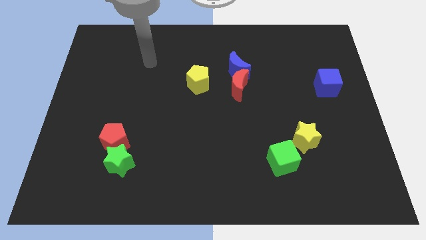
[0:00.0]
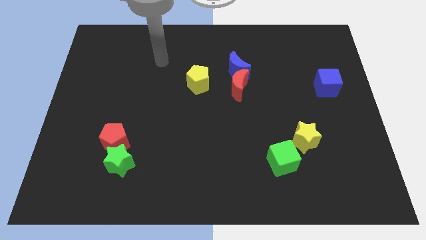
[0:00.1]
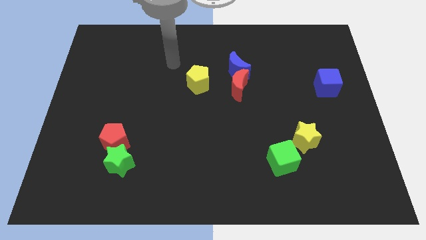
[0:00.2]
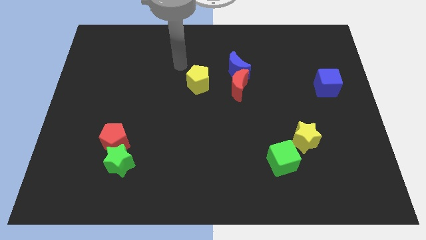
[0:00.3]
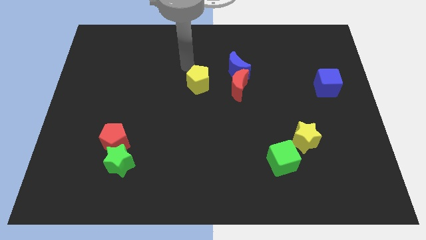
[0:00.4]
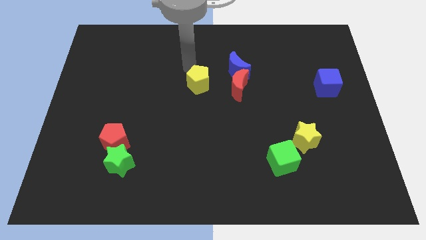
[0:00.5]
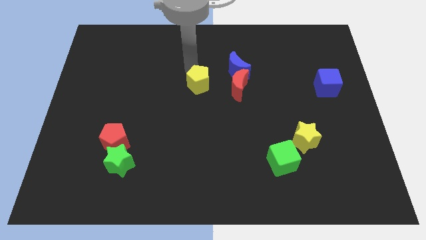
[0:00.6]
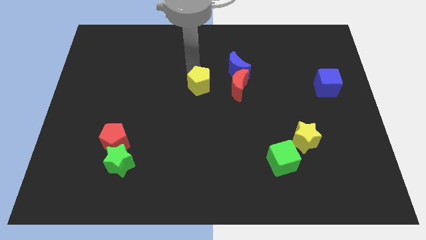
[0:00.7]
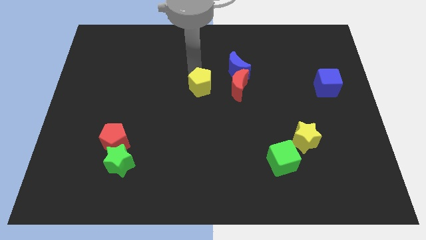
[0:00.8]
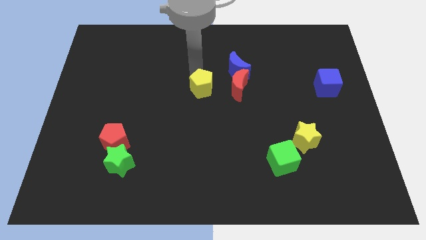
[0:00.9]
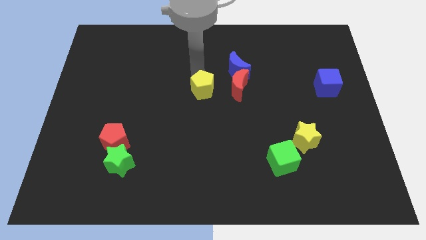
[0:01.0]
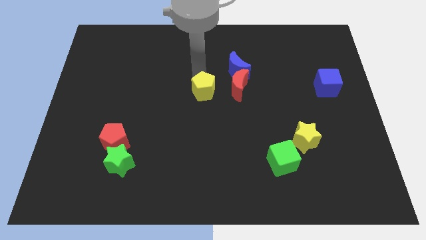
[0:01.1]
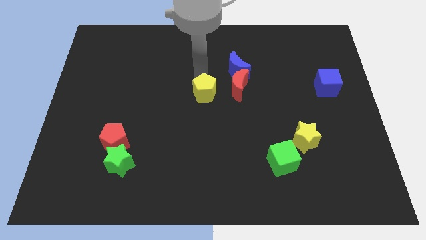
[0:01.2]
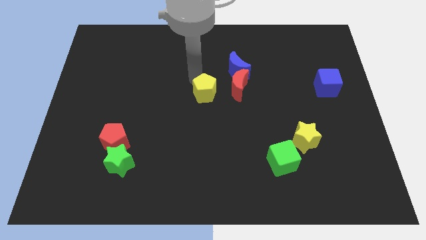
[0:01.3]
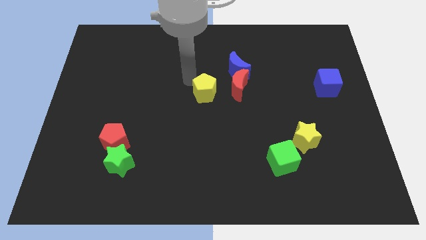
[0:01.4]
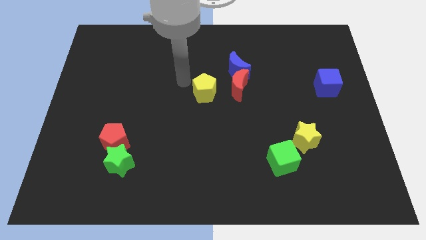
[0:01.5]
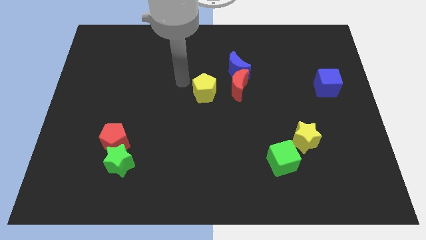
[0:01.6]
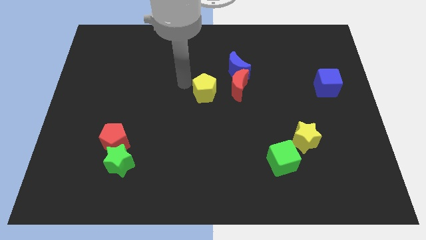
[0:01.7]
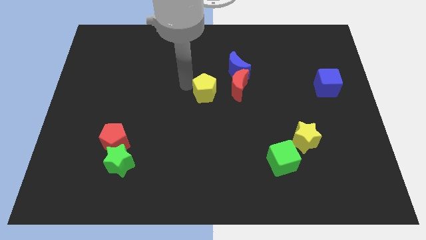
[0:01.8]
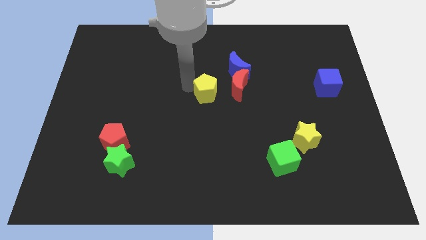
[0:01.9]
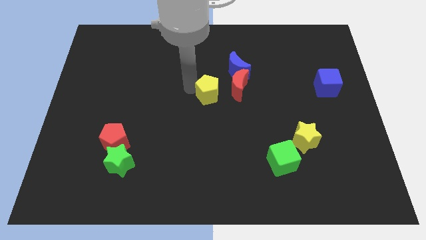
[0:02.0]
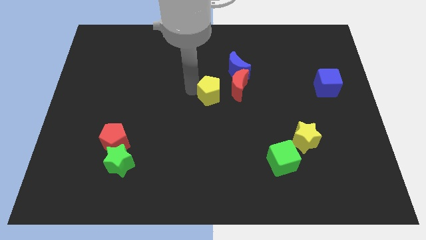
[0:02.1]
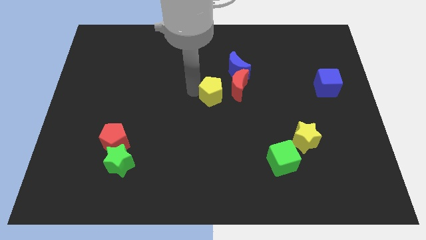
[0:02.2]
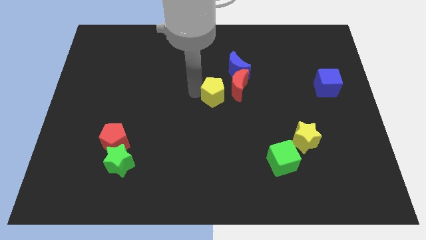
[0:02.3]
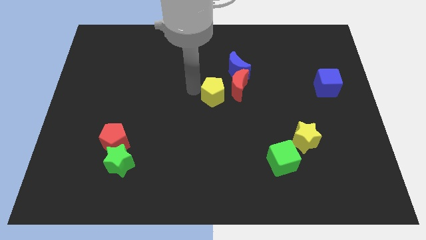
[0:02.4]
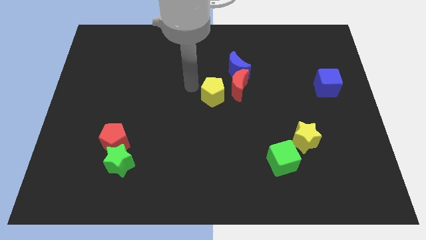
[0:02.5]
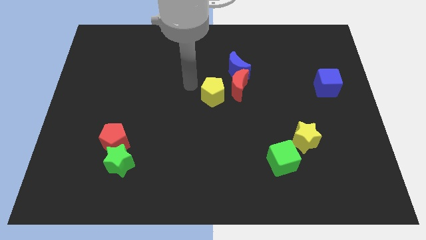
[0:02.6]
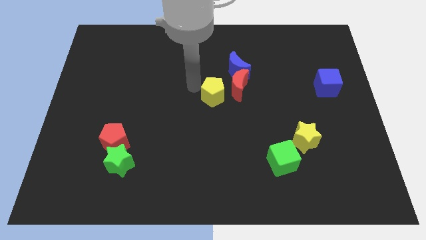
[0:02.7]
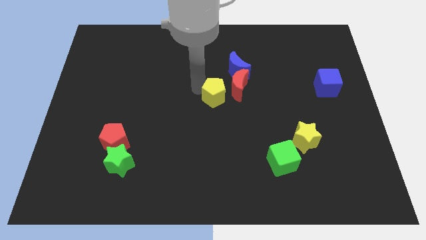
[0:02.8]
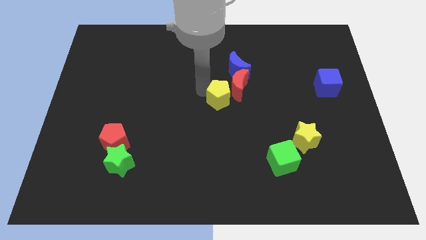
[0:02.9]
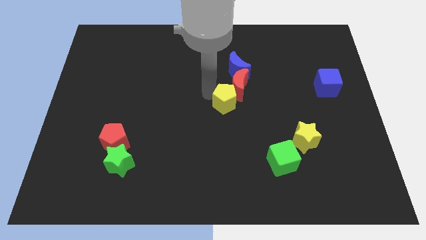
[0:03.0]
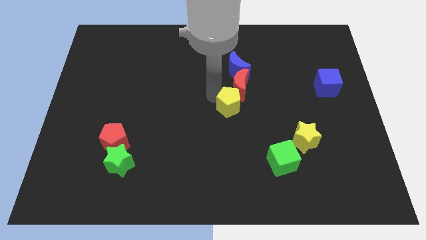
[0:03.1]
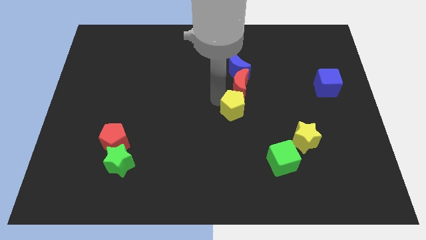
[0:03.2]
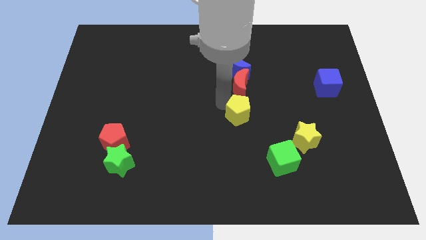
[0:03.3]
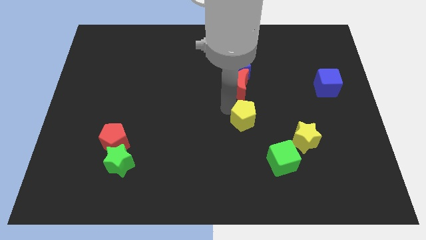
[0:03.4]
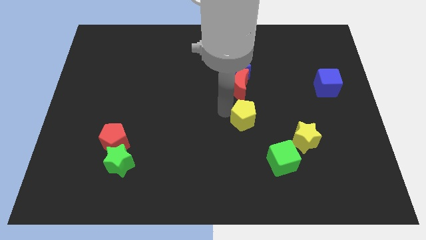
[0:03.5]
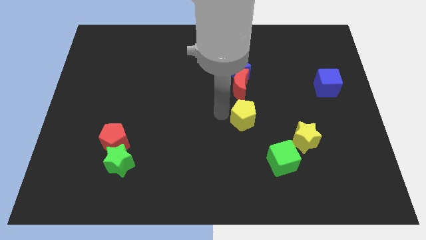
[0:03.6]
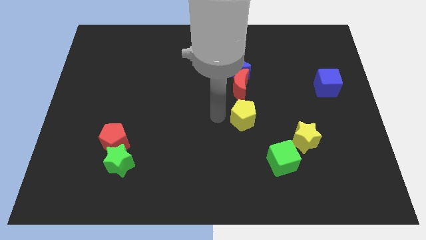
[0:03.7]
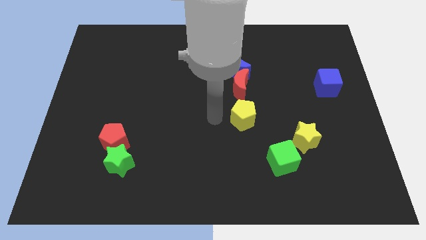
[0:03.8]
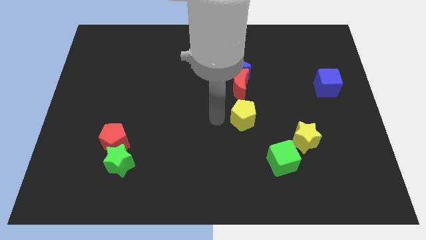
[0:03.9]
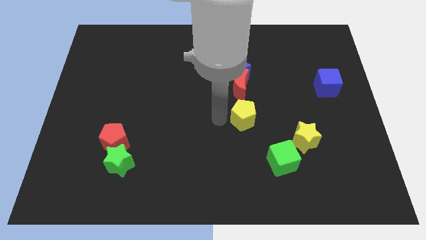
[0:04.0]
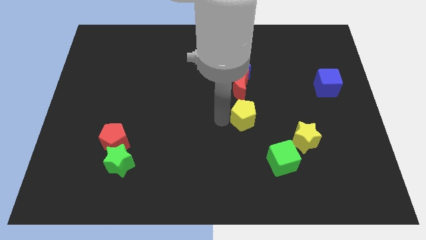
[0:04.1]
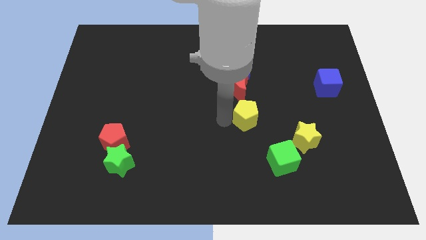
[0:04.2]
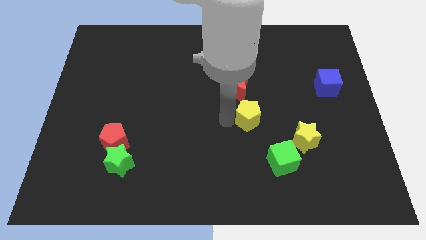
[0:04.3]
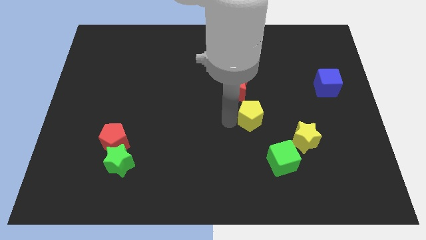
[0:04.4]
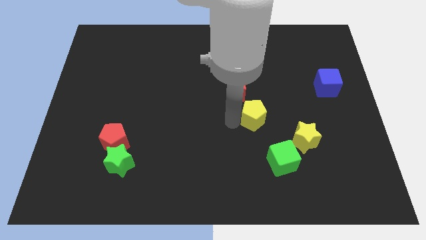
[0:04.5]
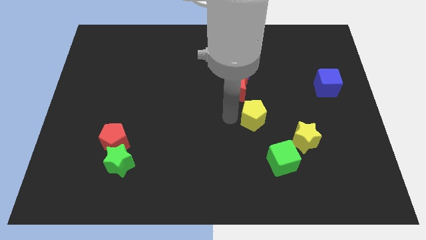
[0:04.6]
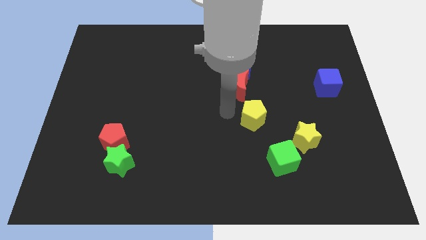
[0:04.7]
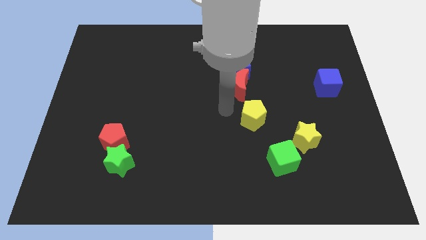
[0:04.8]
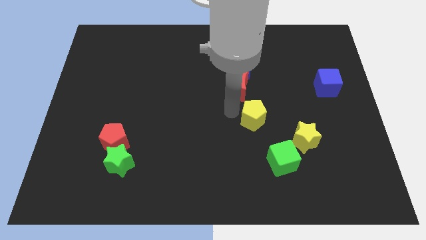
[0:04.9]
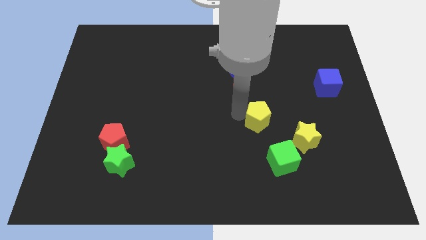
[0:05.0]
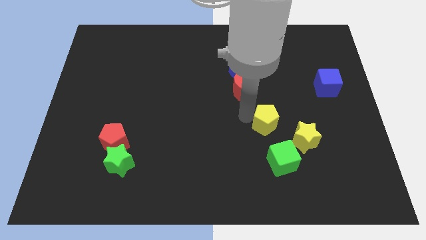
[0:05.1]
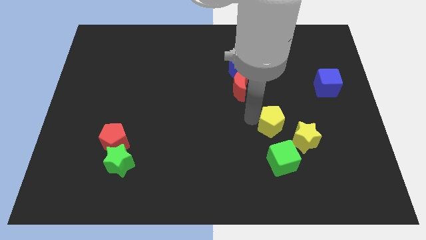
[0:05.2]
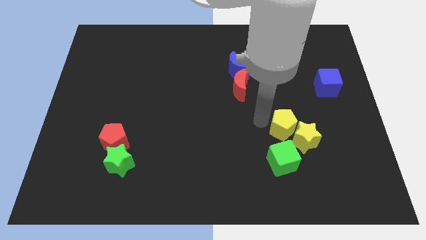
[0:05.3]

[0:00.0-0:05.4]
put the yellow pentagon to the yellow star

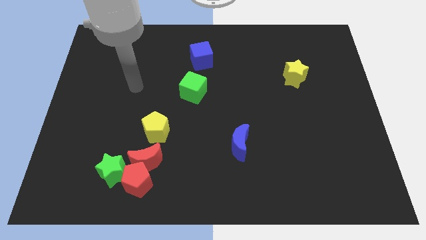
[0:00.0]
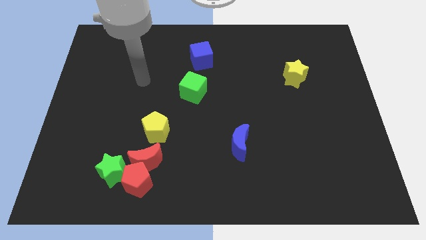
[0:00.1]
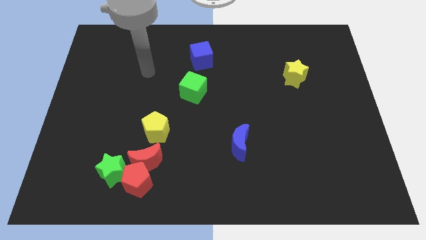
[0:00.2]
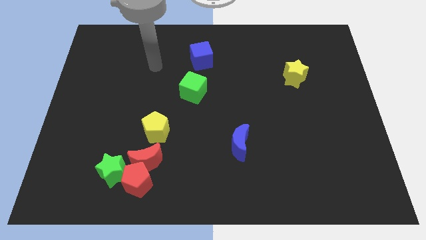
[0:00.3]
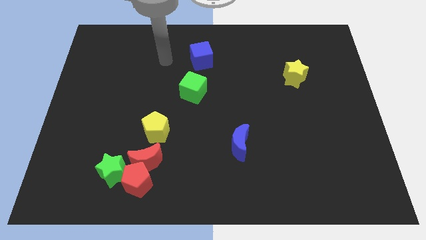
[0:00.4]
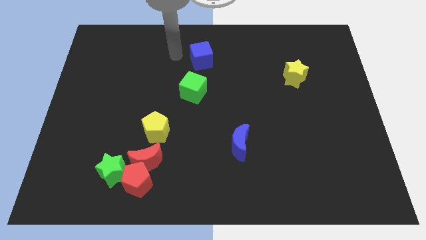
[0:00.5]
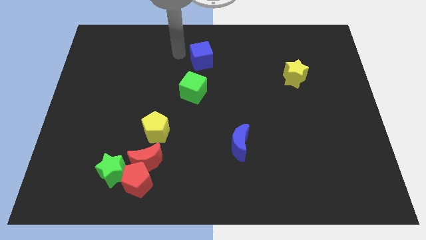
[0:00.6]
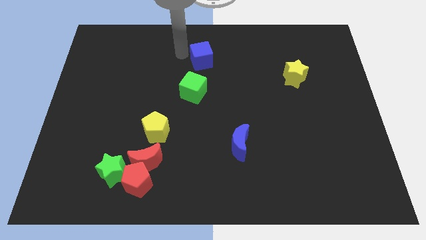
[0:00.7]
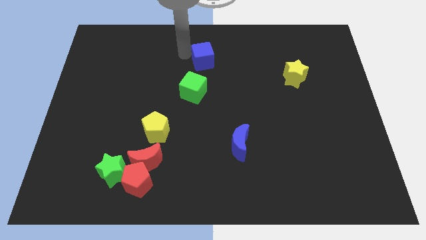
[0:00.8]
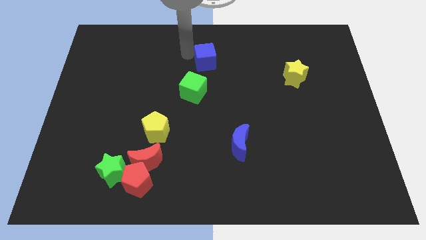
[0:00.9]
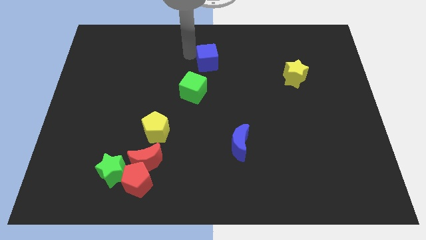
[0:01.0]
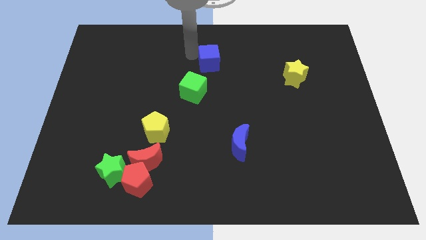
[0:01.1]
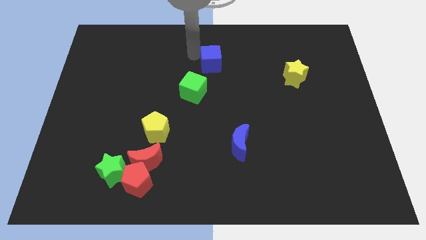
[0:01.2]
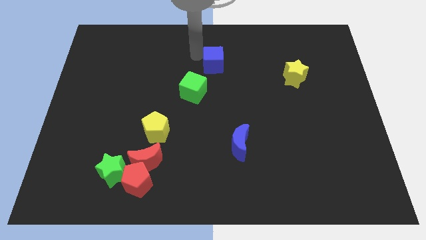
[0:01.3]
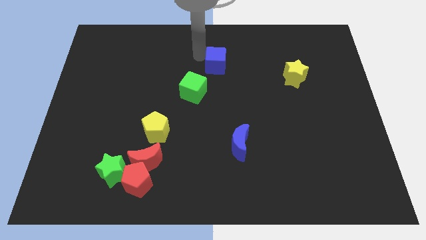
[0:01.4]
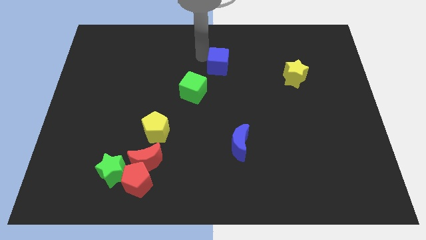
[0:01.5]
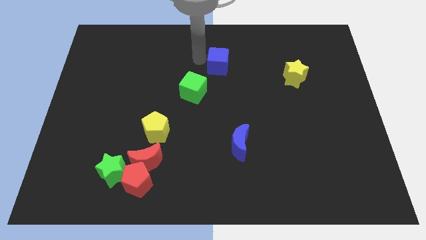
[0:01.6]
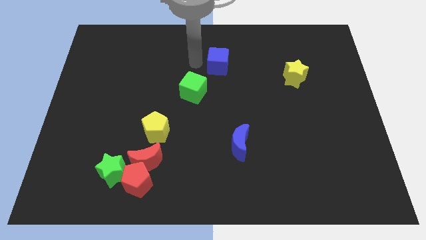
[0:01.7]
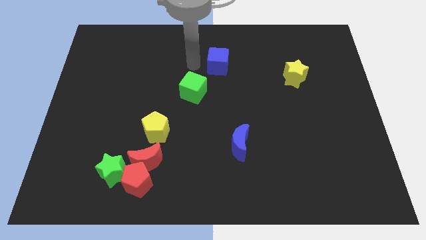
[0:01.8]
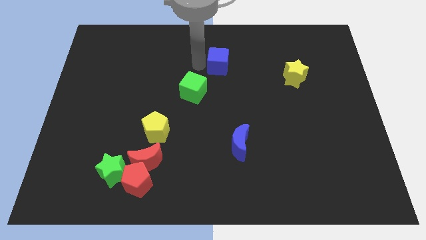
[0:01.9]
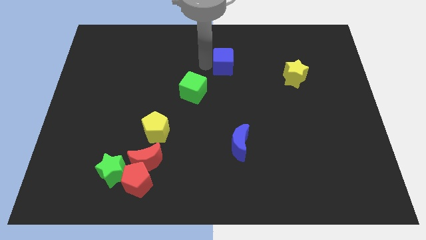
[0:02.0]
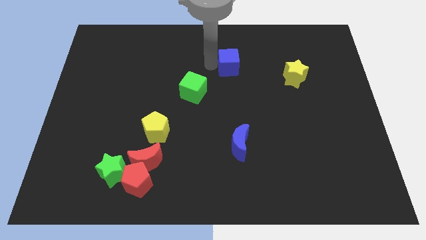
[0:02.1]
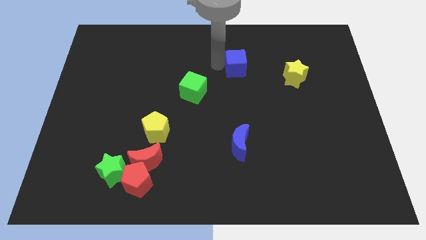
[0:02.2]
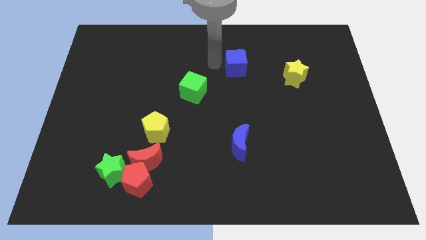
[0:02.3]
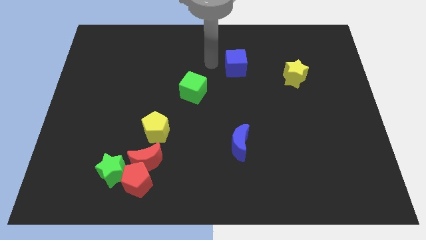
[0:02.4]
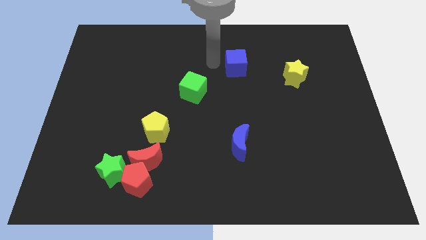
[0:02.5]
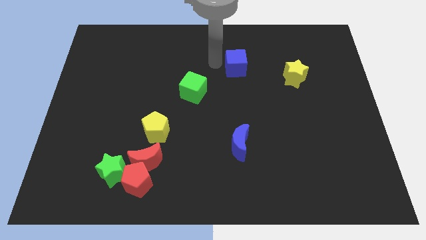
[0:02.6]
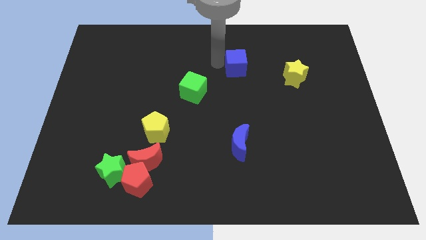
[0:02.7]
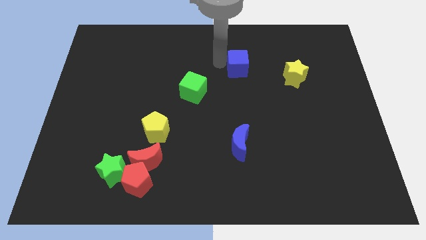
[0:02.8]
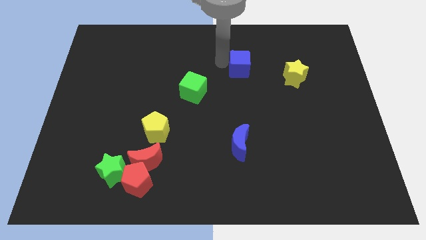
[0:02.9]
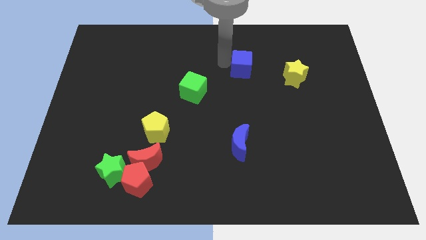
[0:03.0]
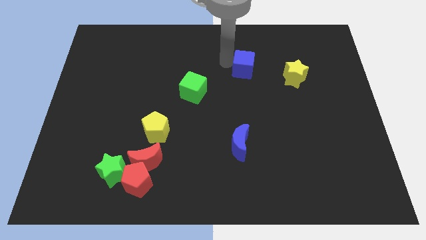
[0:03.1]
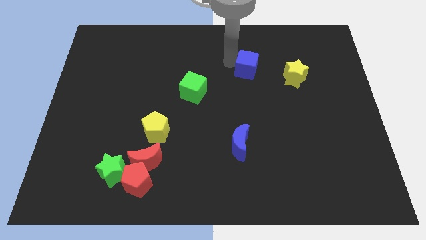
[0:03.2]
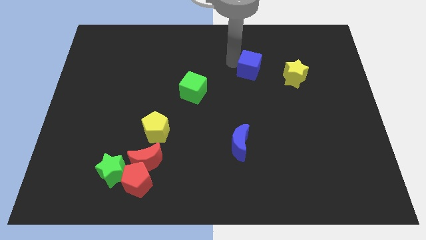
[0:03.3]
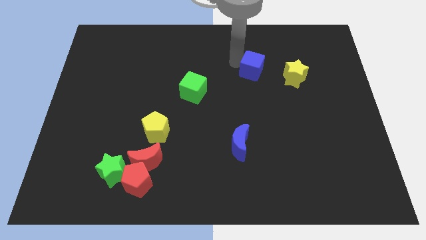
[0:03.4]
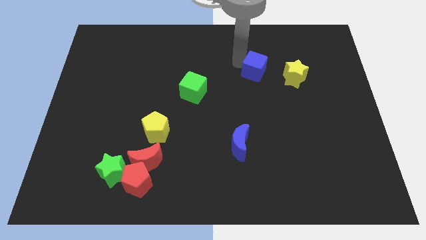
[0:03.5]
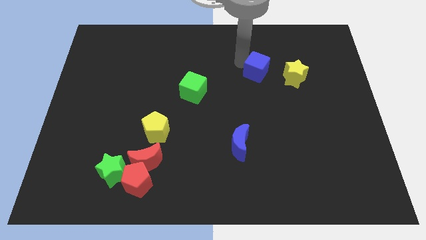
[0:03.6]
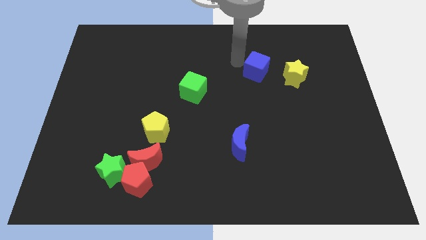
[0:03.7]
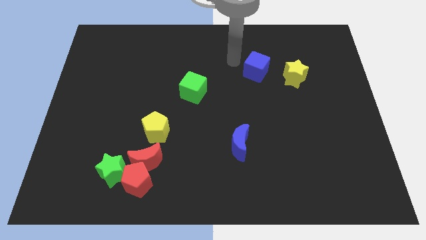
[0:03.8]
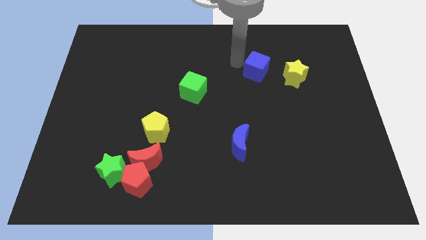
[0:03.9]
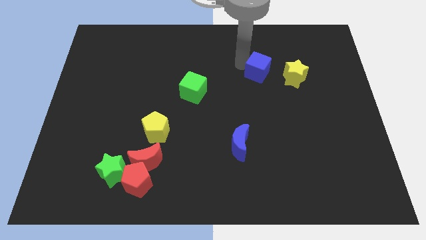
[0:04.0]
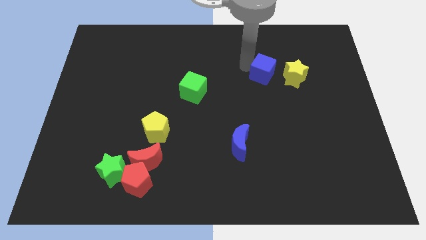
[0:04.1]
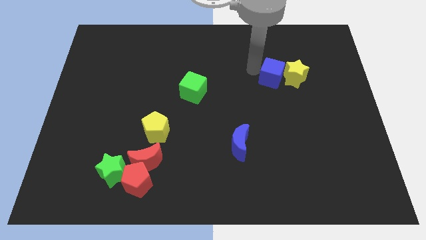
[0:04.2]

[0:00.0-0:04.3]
push the blue cube next to the yellow star
